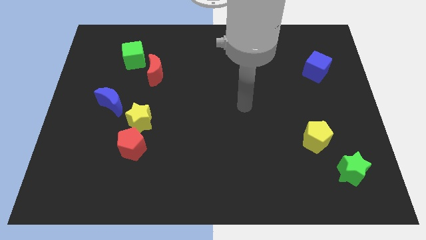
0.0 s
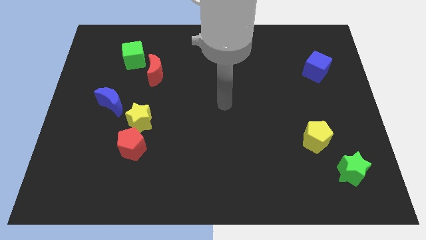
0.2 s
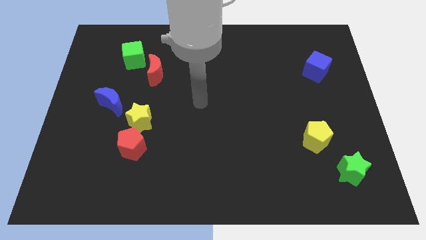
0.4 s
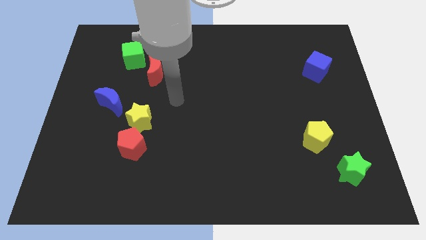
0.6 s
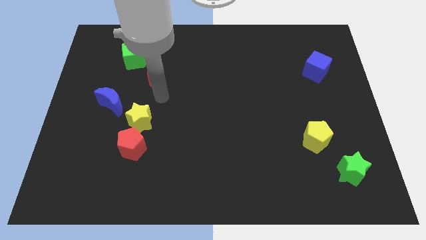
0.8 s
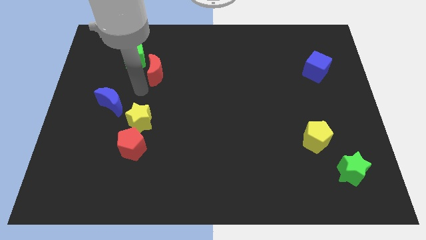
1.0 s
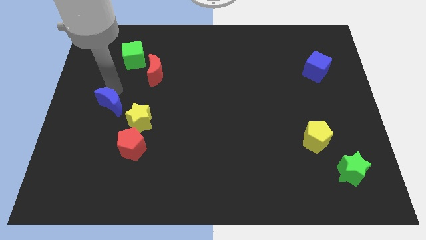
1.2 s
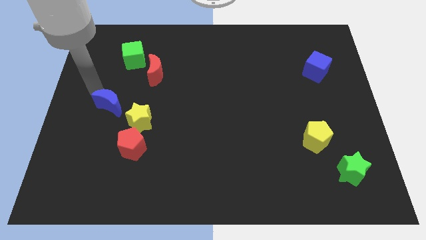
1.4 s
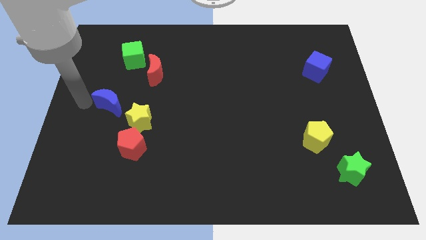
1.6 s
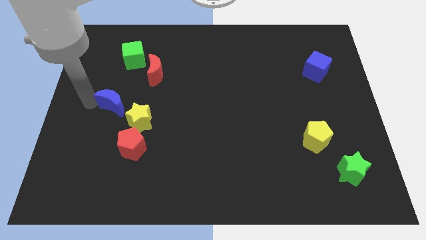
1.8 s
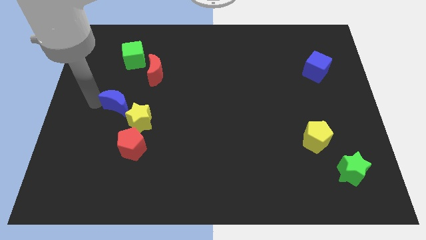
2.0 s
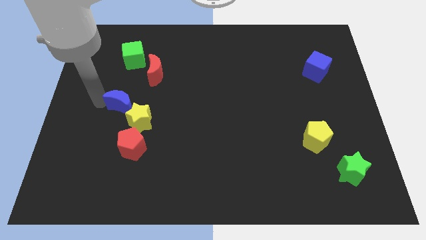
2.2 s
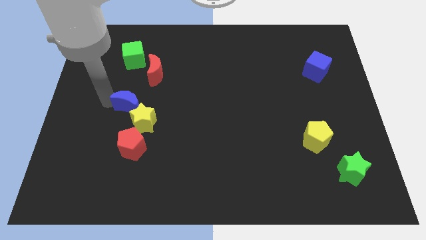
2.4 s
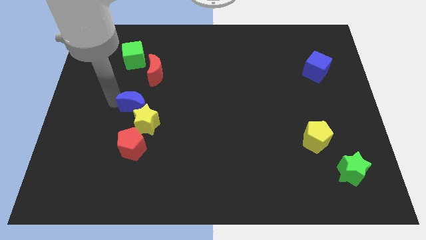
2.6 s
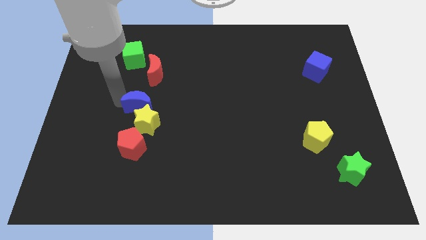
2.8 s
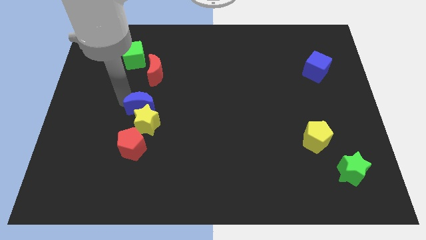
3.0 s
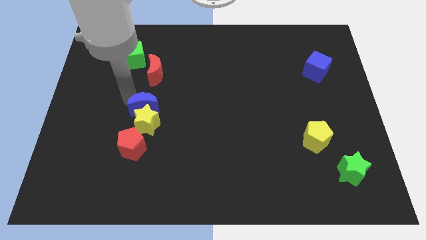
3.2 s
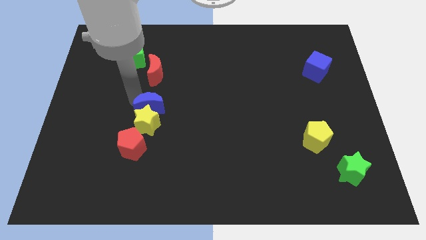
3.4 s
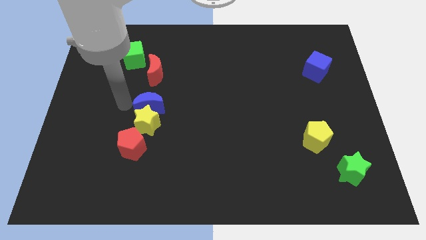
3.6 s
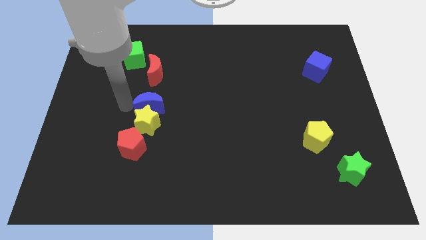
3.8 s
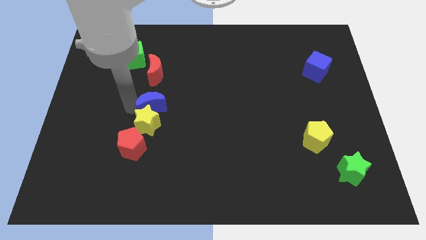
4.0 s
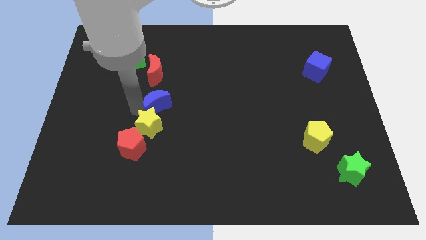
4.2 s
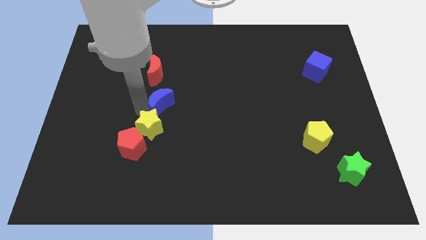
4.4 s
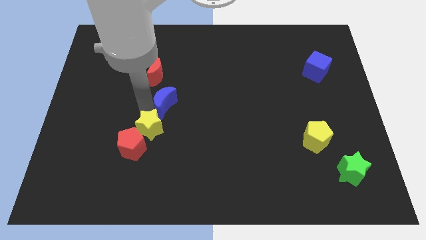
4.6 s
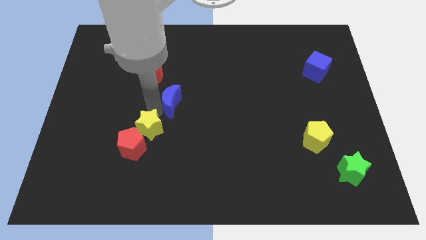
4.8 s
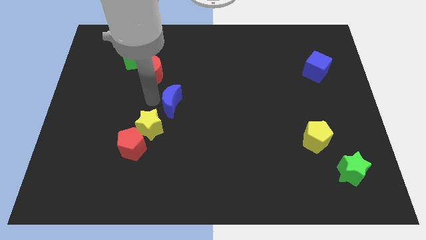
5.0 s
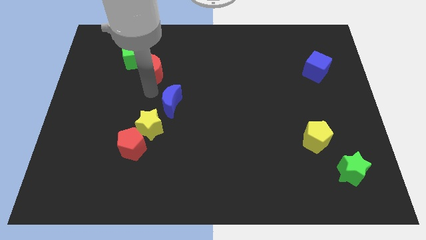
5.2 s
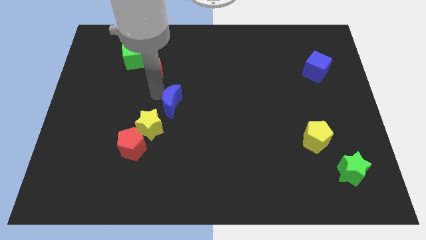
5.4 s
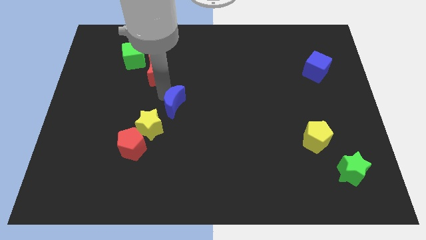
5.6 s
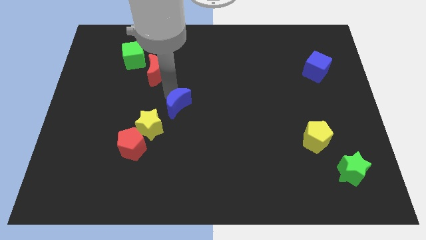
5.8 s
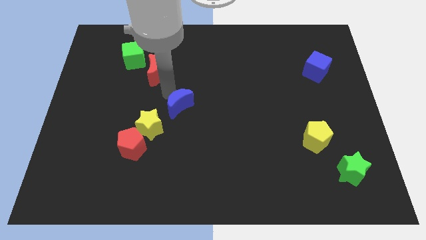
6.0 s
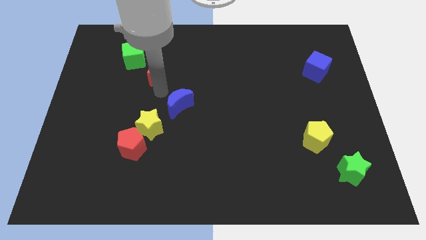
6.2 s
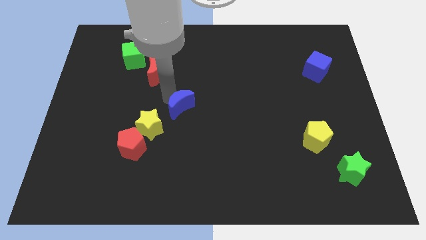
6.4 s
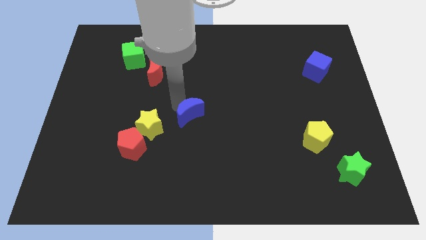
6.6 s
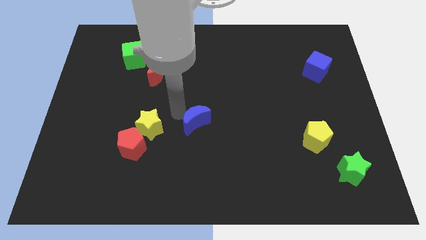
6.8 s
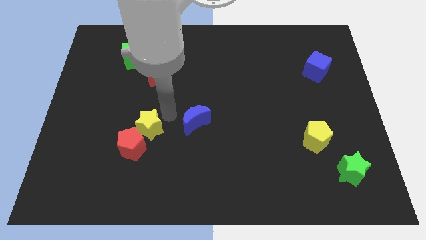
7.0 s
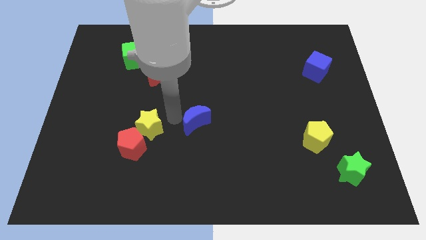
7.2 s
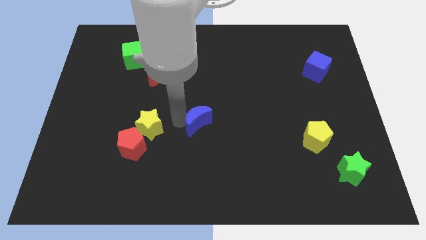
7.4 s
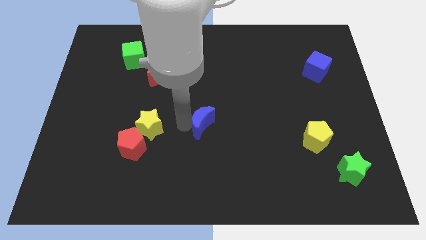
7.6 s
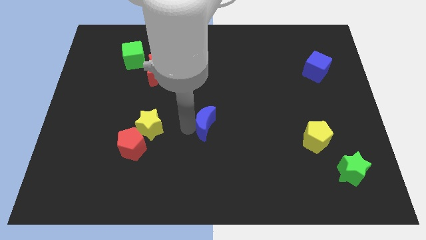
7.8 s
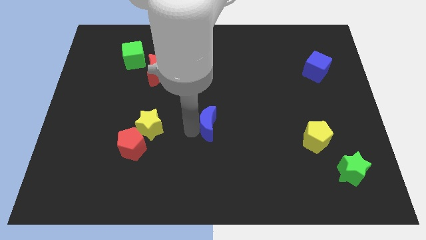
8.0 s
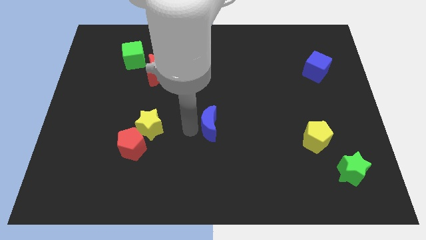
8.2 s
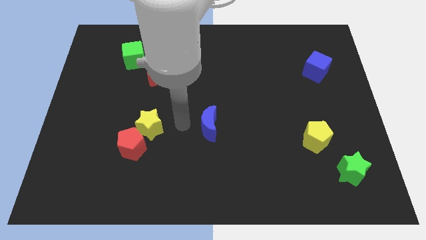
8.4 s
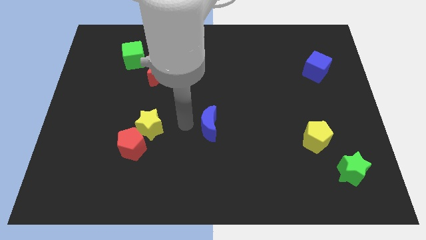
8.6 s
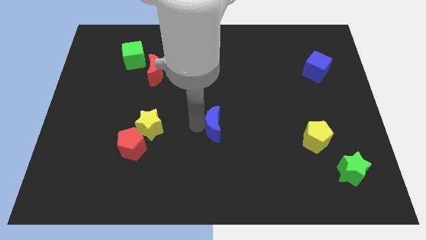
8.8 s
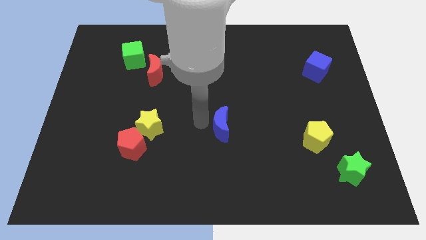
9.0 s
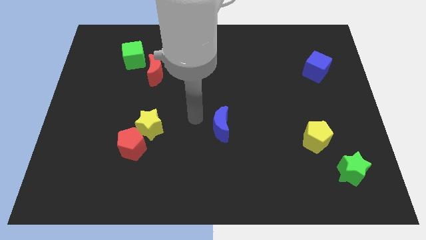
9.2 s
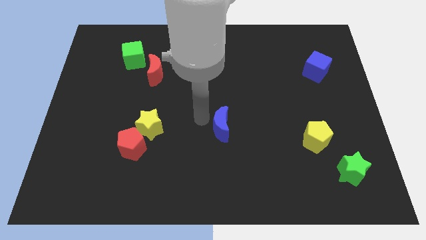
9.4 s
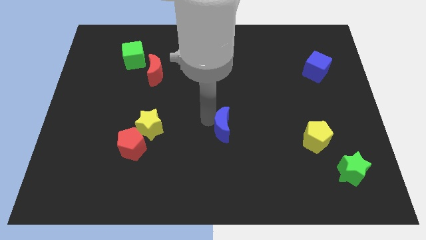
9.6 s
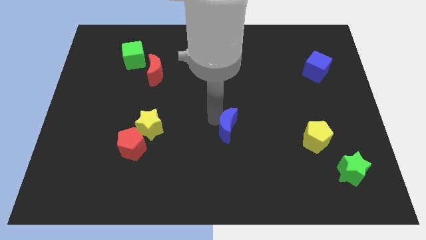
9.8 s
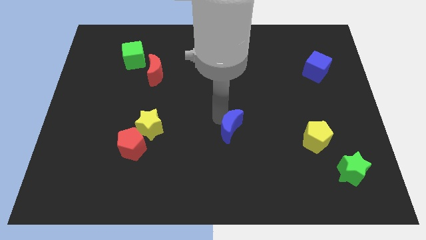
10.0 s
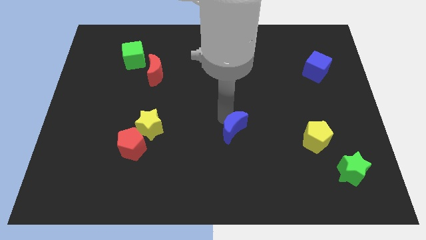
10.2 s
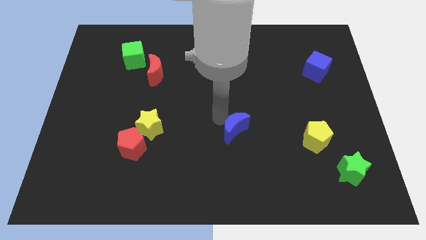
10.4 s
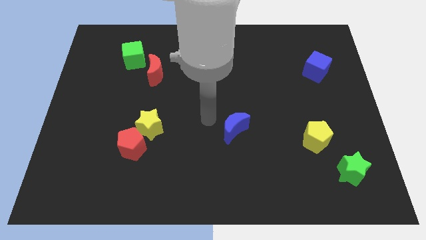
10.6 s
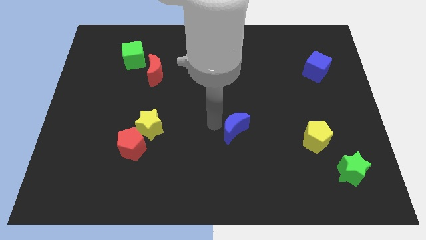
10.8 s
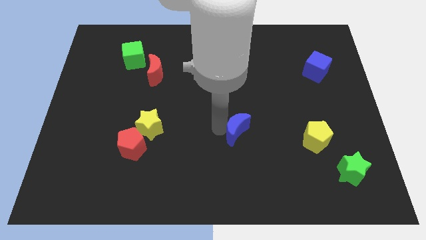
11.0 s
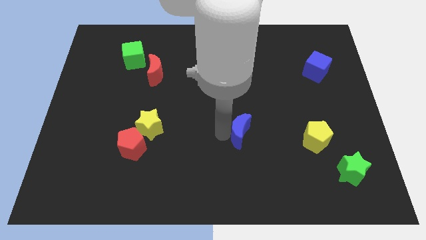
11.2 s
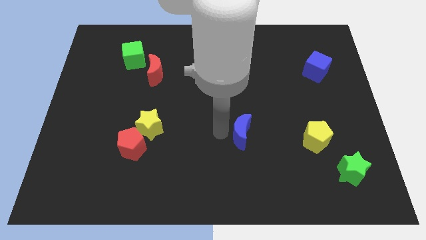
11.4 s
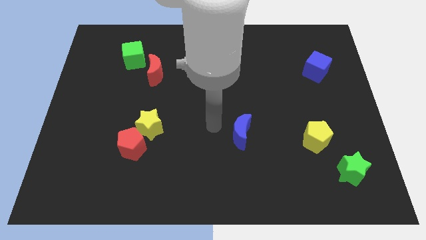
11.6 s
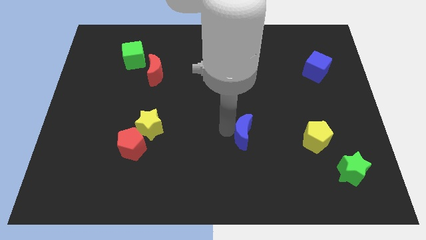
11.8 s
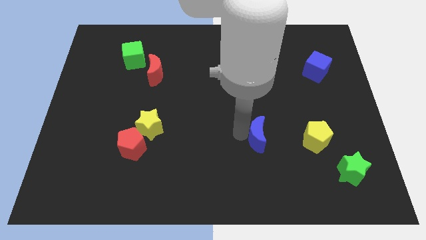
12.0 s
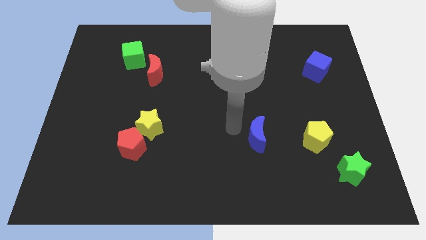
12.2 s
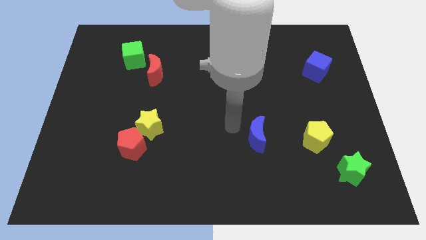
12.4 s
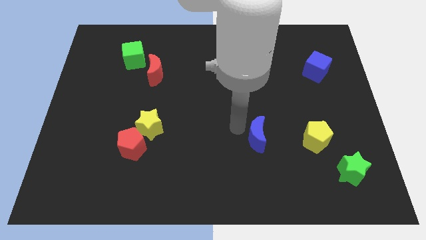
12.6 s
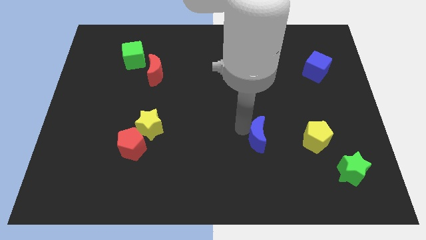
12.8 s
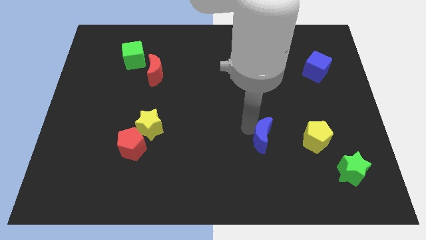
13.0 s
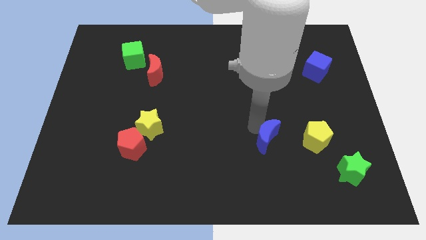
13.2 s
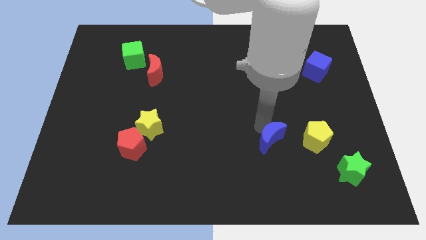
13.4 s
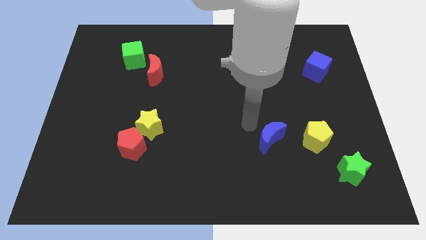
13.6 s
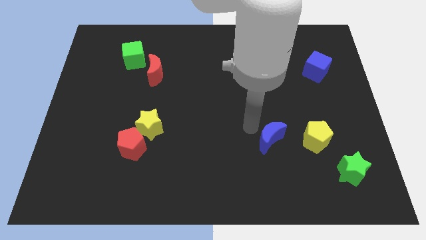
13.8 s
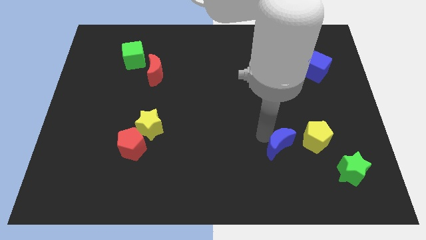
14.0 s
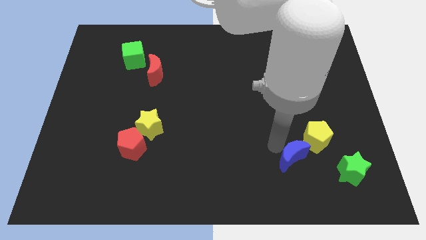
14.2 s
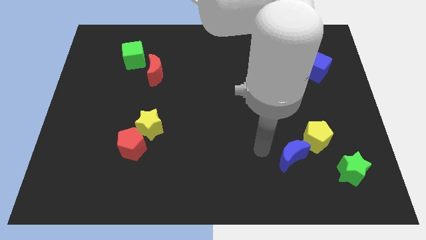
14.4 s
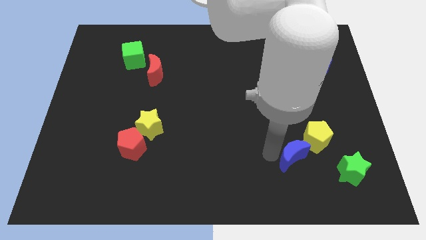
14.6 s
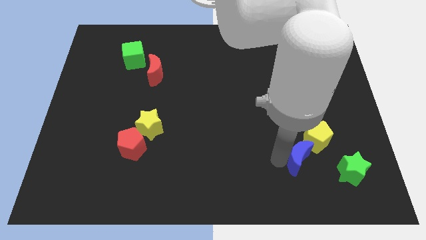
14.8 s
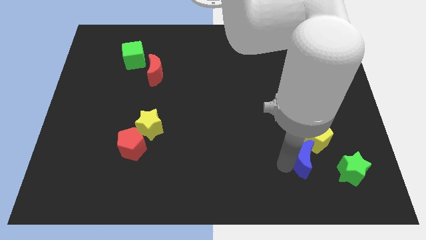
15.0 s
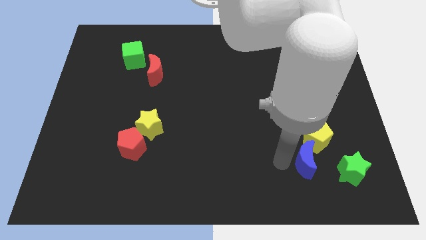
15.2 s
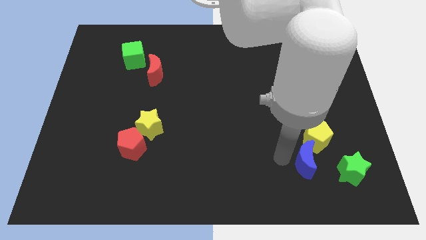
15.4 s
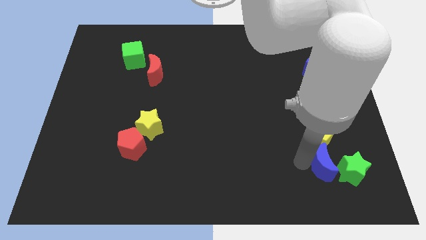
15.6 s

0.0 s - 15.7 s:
push the blue moon next to the green star
